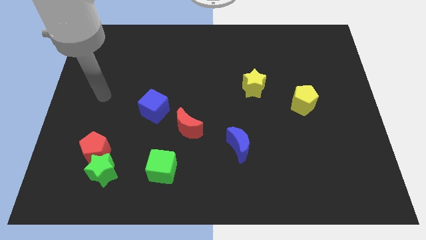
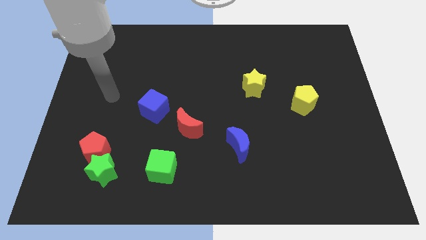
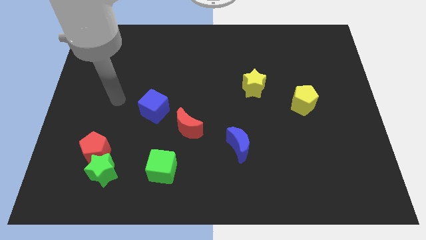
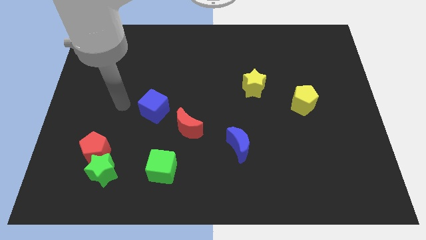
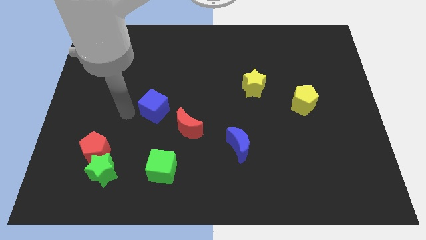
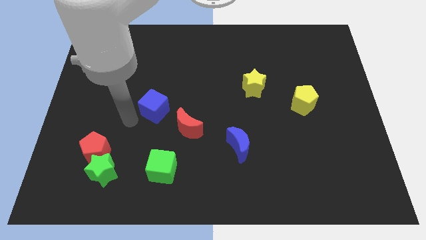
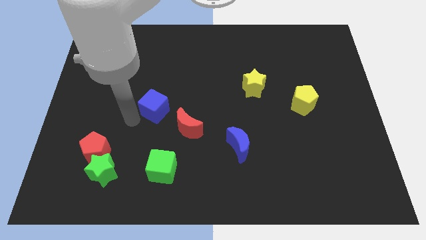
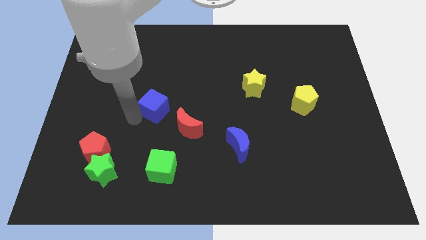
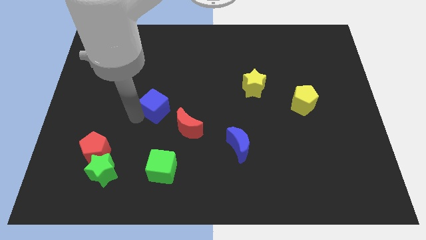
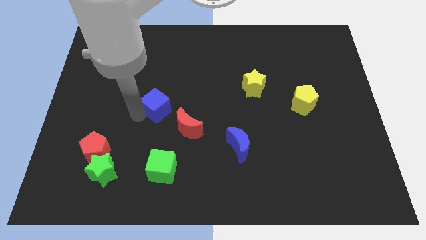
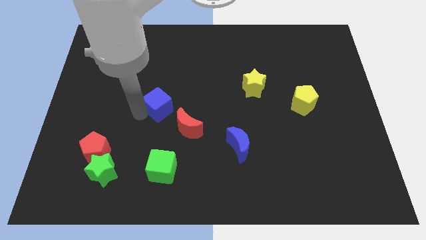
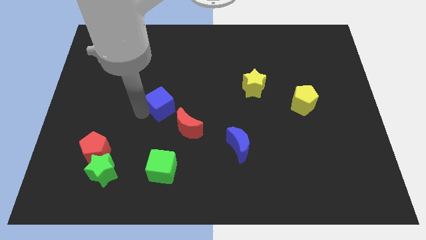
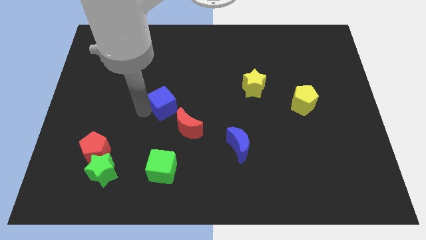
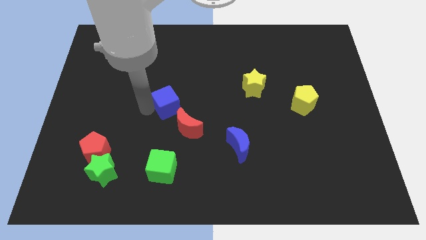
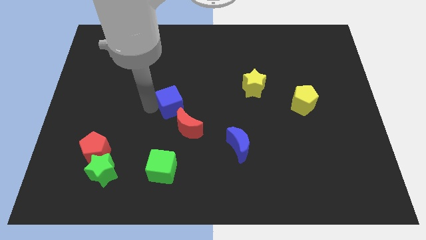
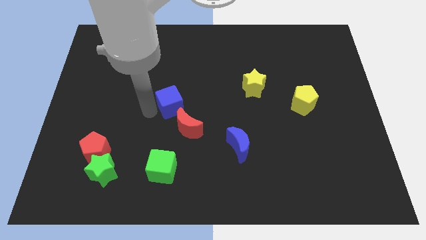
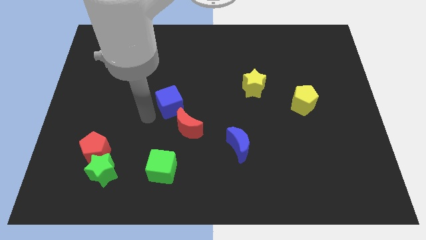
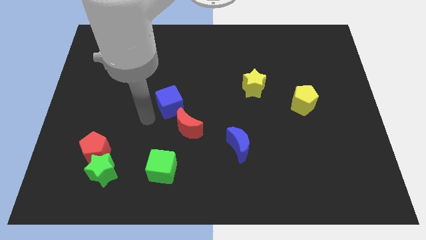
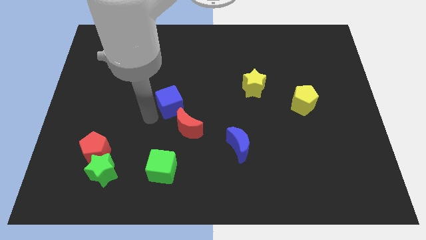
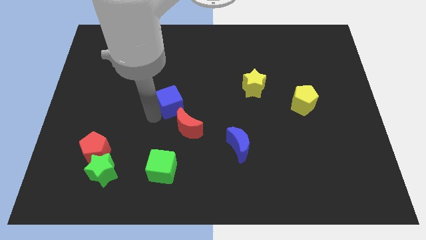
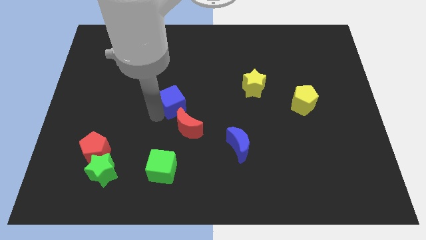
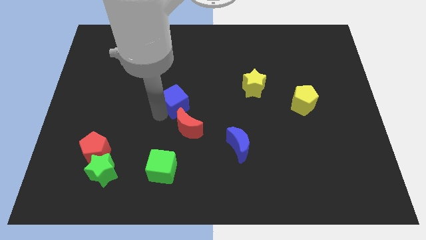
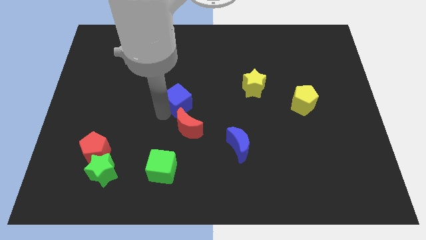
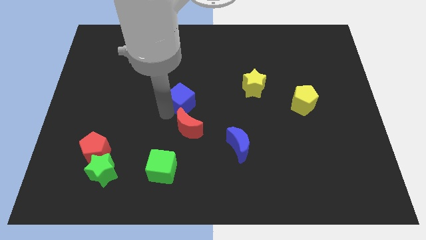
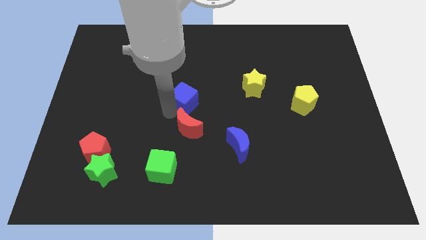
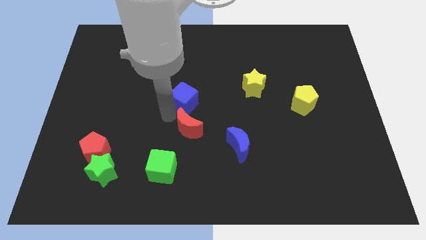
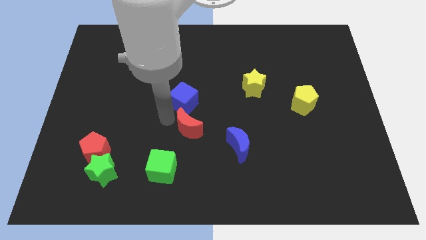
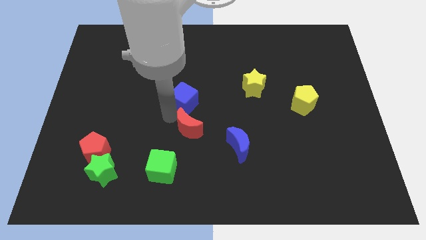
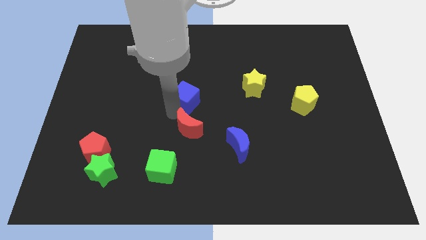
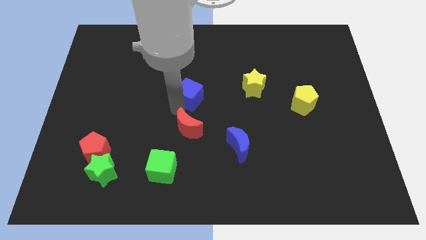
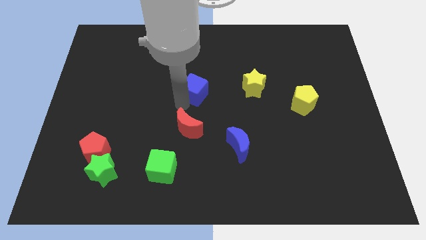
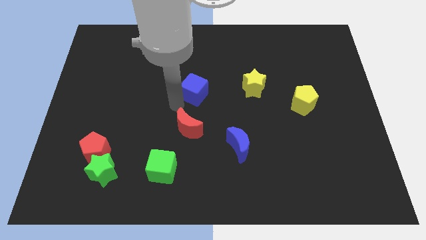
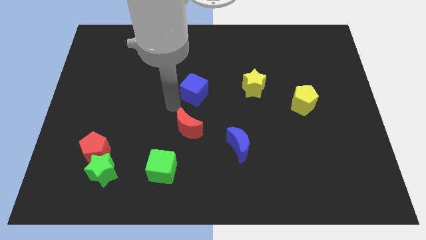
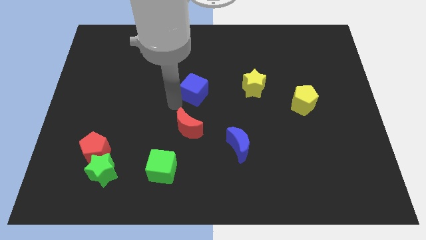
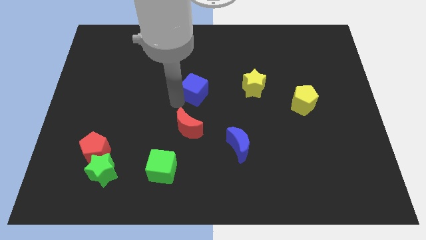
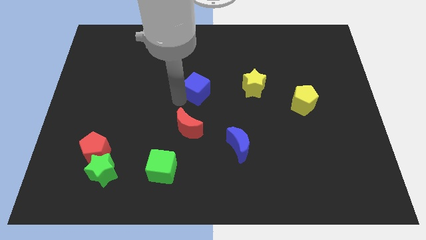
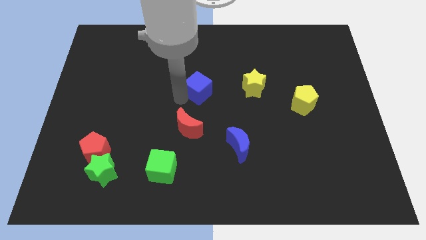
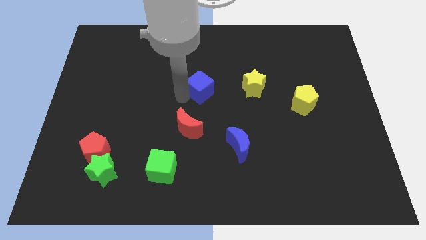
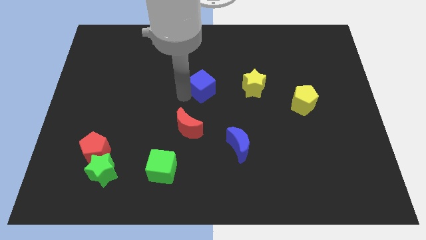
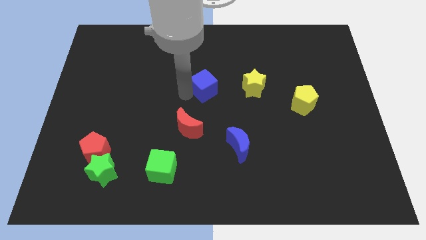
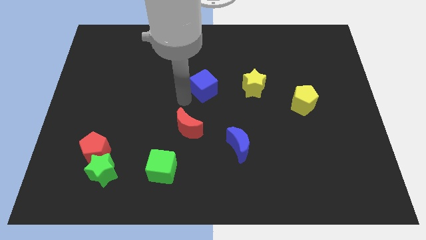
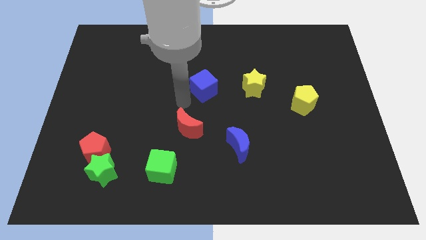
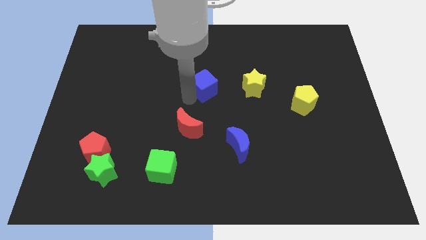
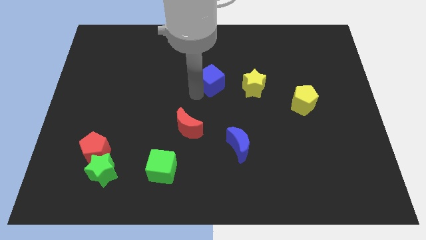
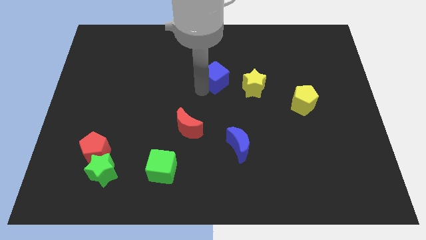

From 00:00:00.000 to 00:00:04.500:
put the blue cube diagonally up and to the left of the yellow star

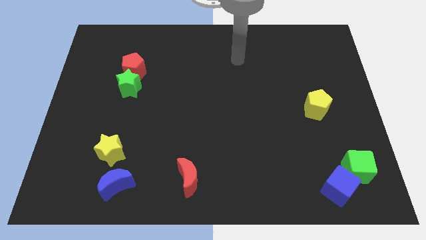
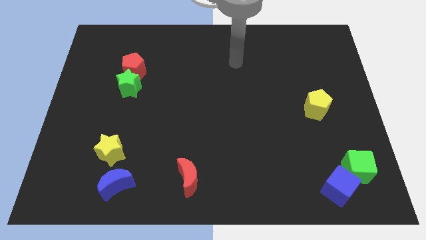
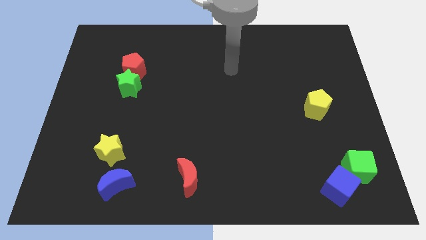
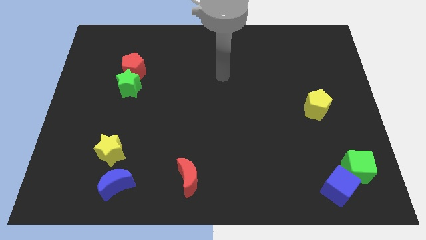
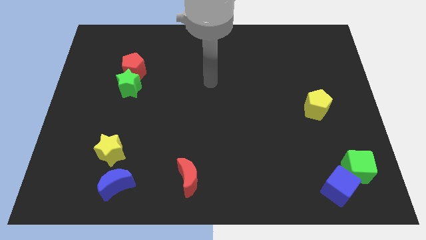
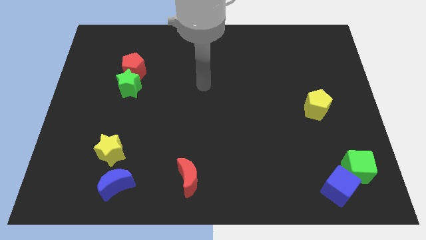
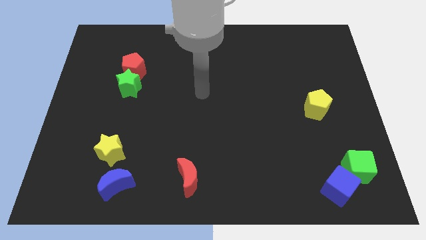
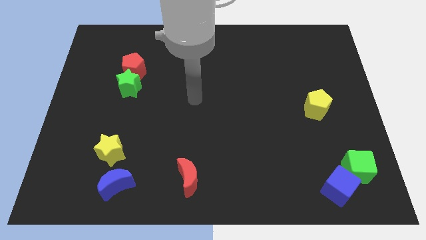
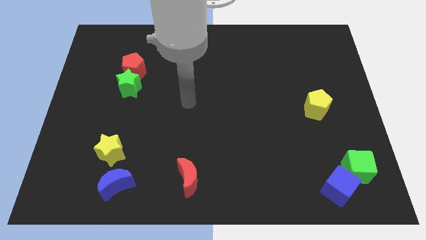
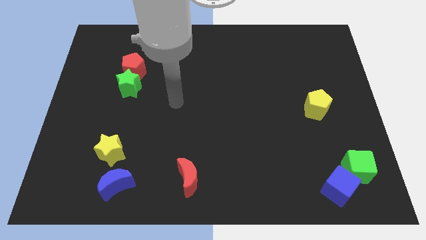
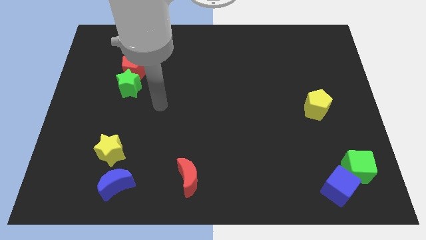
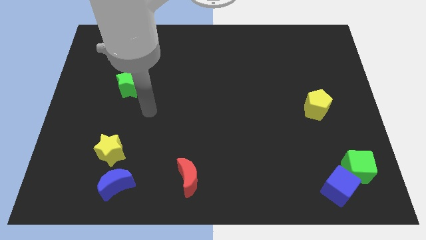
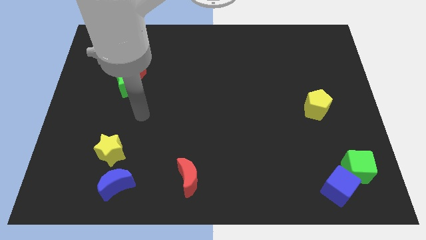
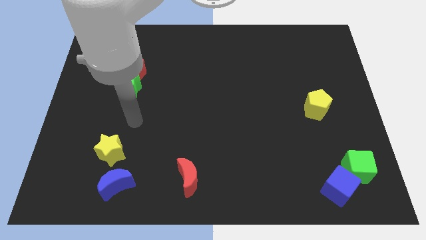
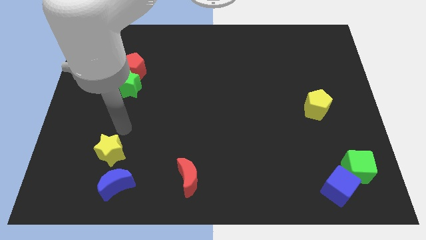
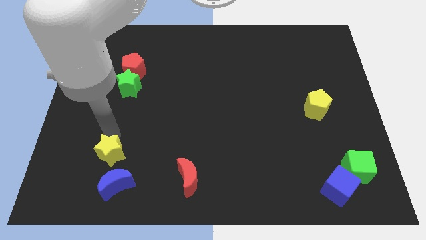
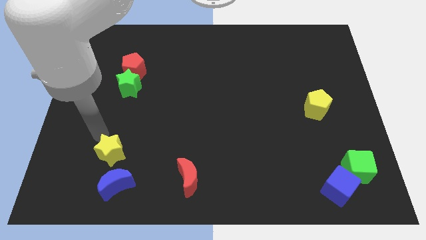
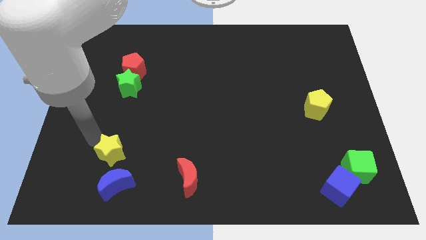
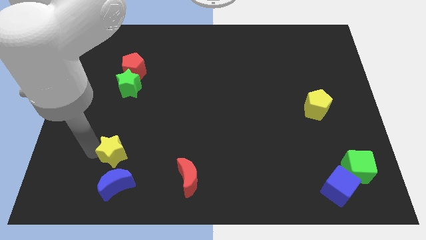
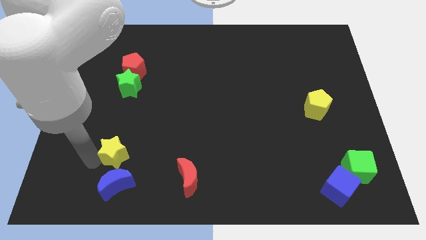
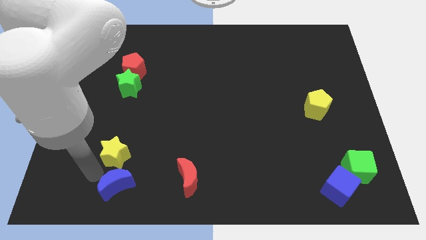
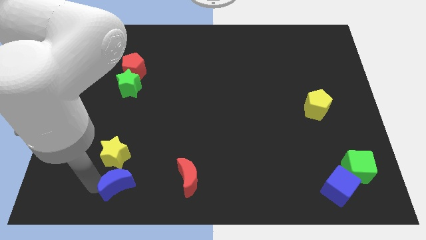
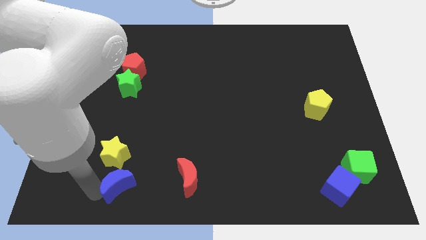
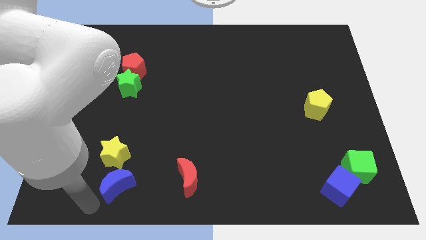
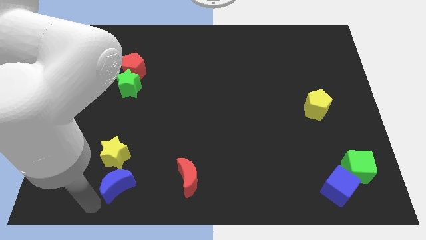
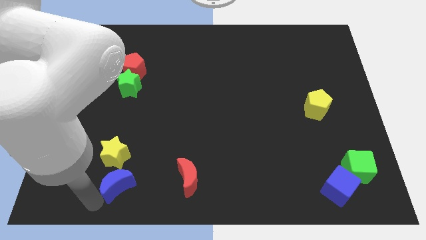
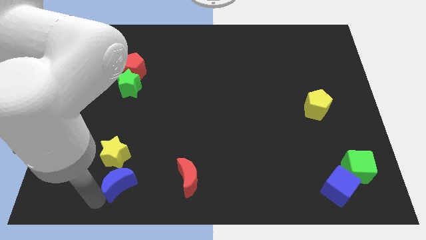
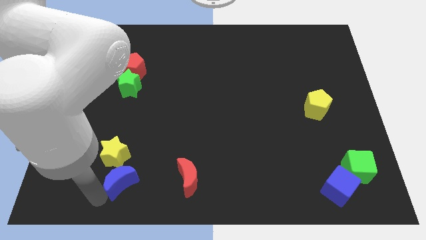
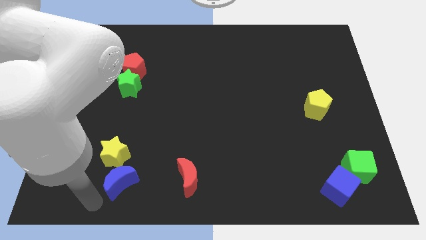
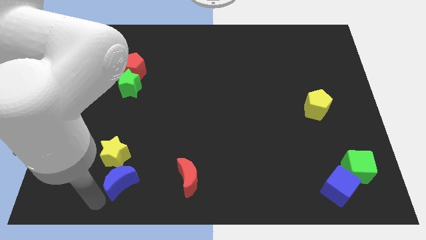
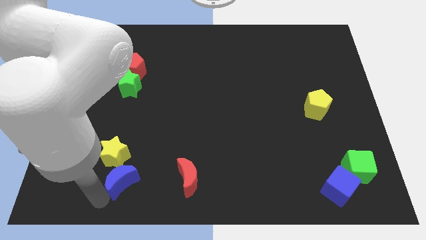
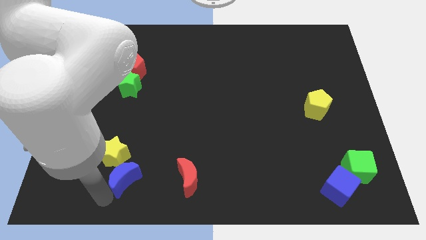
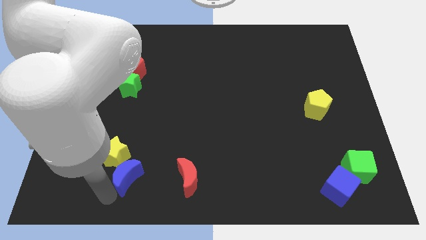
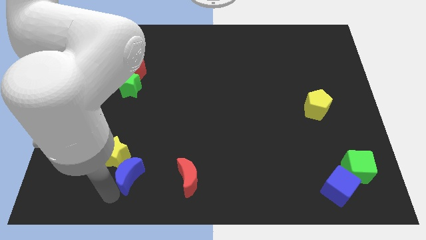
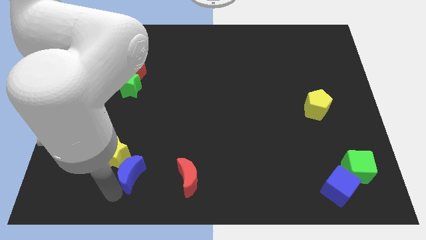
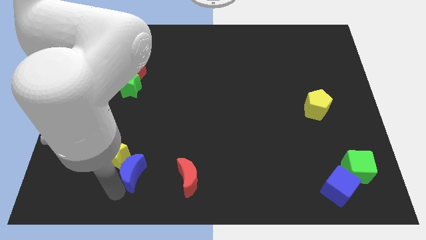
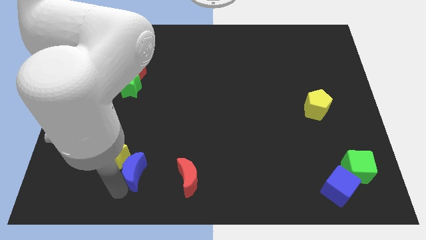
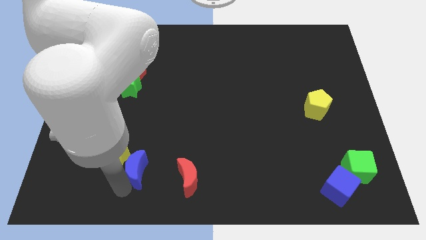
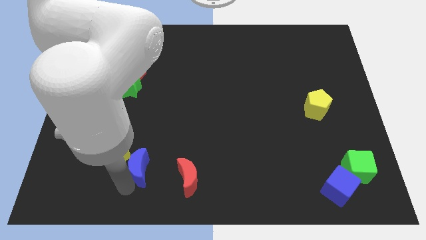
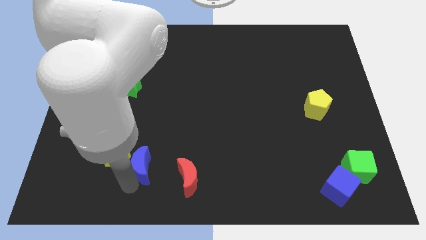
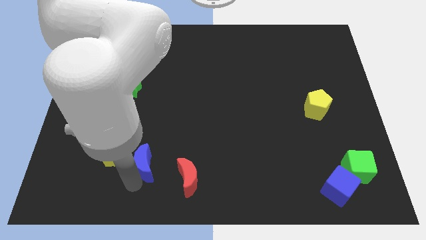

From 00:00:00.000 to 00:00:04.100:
slide the blue moon to the top left side of the red moon
